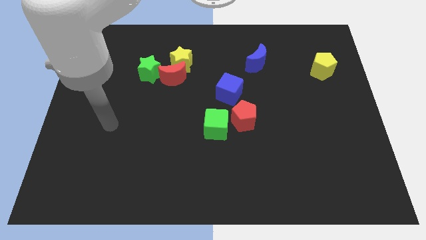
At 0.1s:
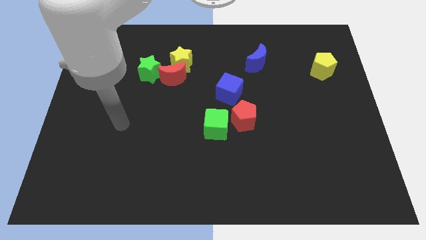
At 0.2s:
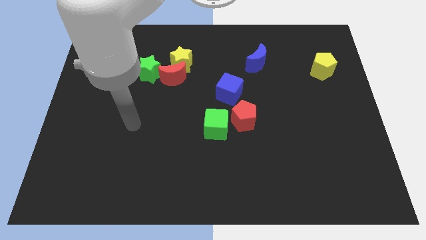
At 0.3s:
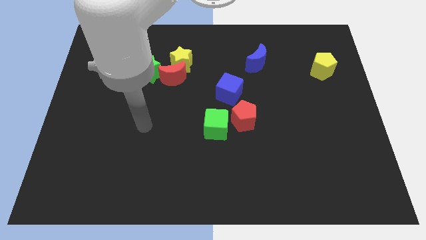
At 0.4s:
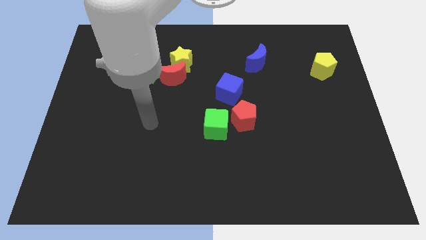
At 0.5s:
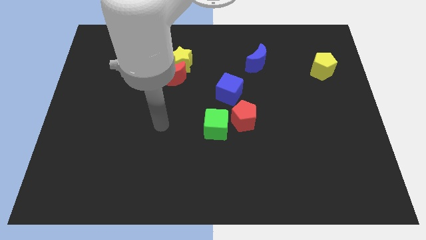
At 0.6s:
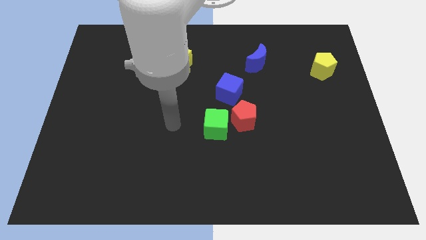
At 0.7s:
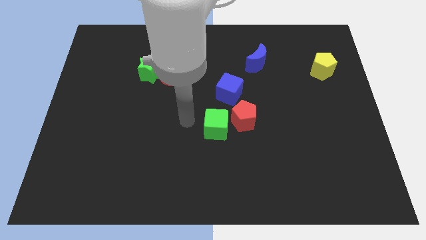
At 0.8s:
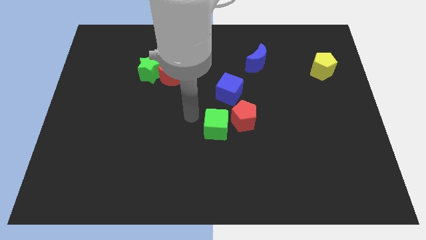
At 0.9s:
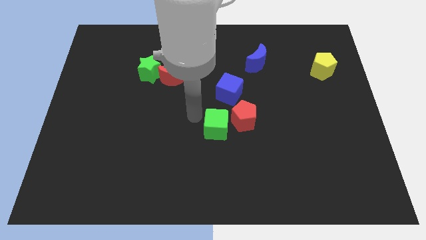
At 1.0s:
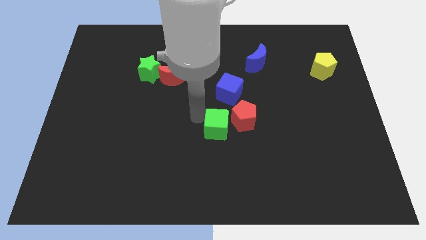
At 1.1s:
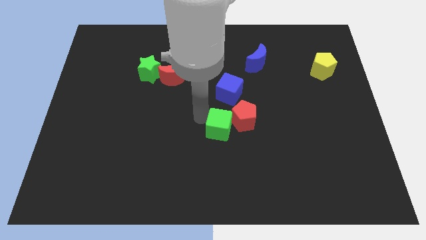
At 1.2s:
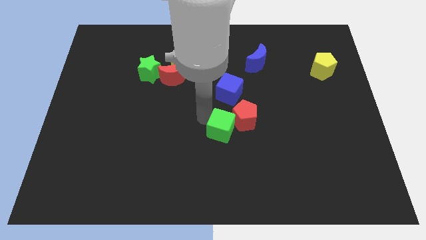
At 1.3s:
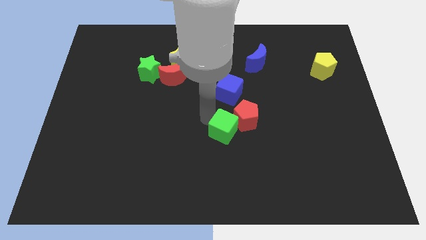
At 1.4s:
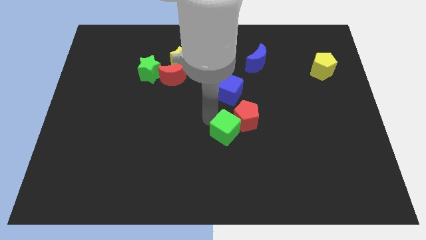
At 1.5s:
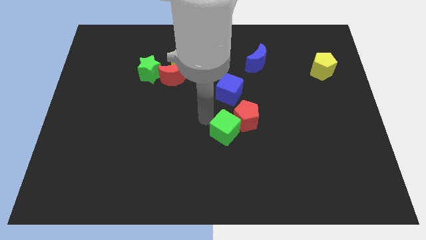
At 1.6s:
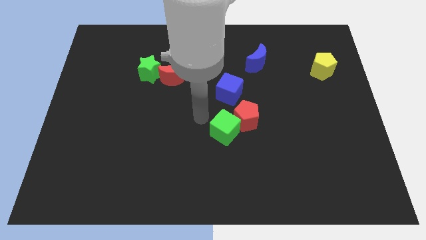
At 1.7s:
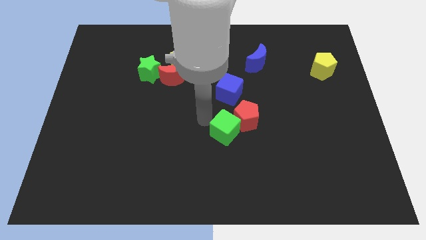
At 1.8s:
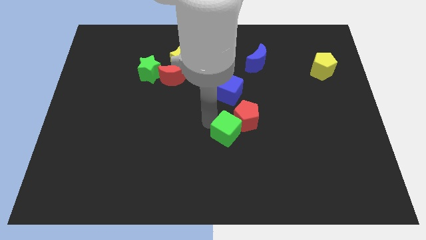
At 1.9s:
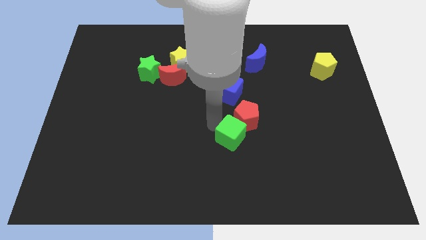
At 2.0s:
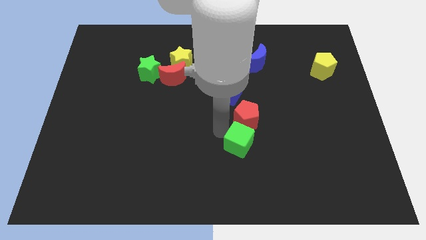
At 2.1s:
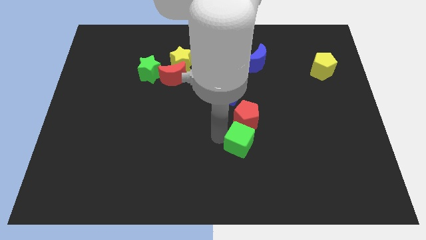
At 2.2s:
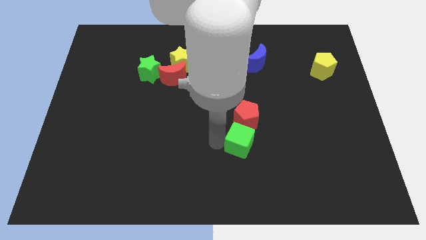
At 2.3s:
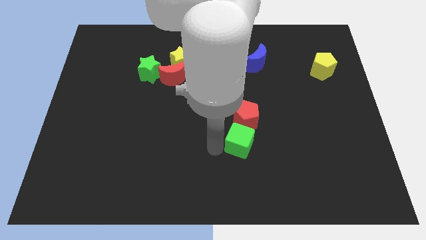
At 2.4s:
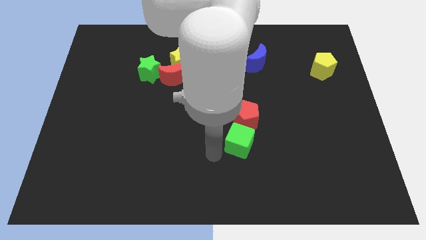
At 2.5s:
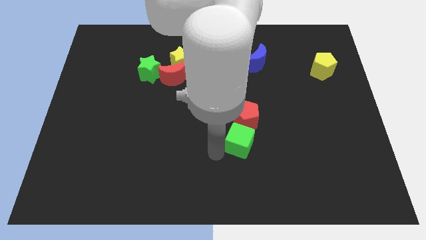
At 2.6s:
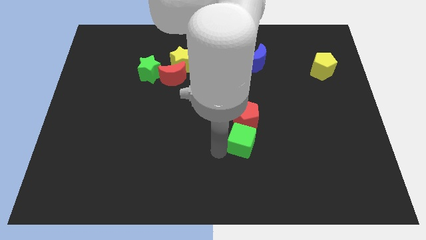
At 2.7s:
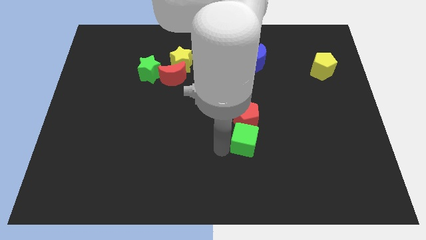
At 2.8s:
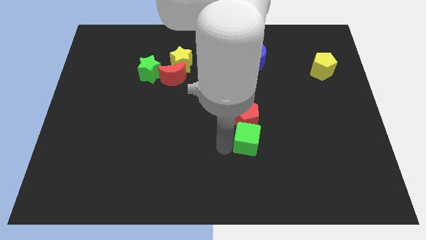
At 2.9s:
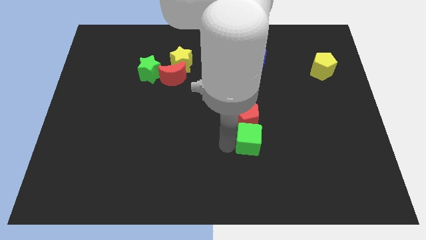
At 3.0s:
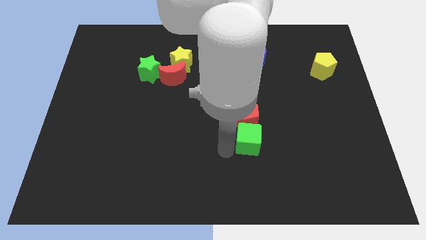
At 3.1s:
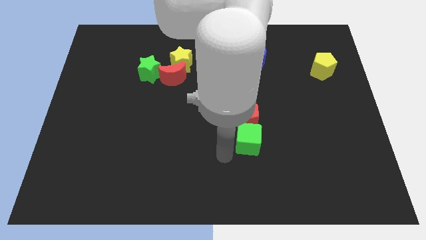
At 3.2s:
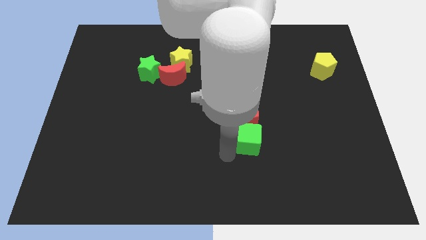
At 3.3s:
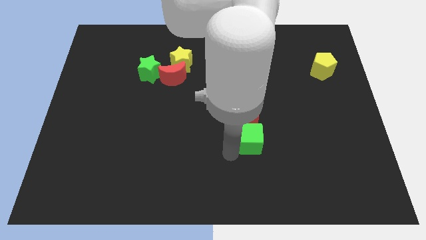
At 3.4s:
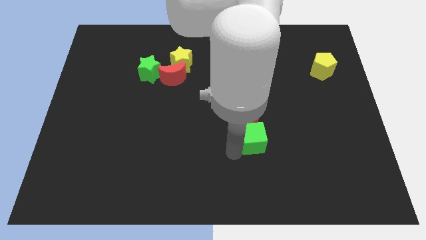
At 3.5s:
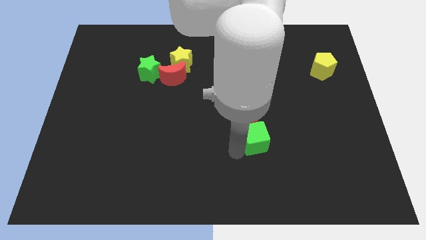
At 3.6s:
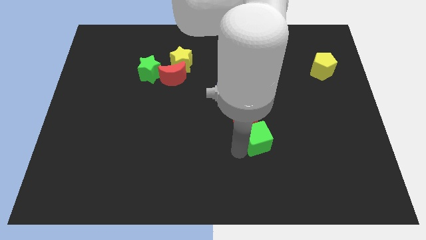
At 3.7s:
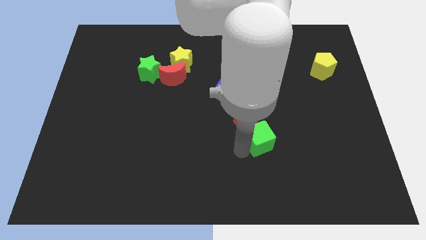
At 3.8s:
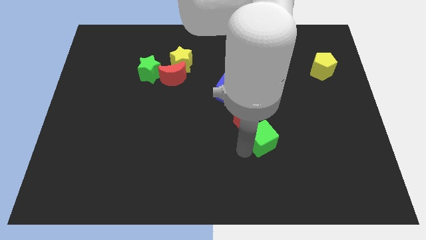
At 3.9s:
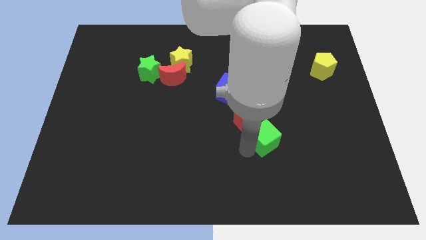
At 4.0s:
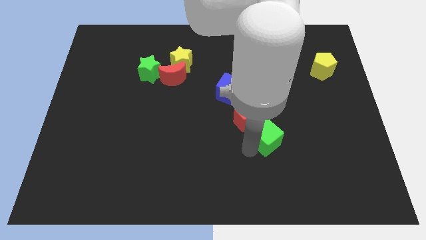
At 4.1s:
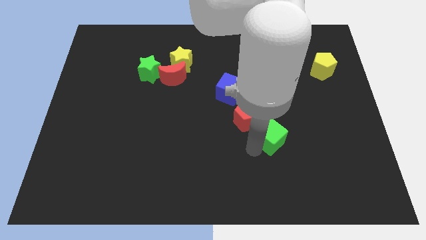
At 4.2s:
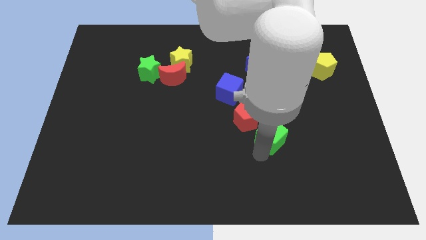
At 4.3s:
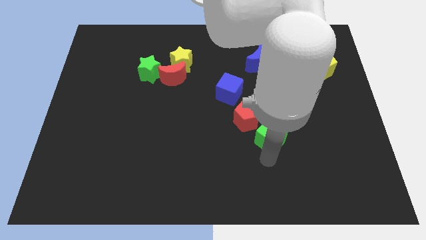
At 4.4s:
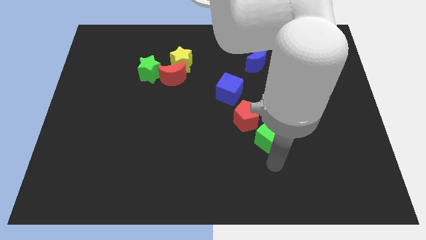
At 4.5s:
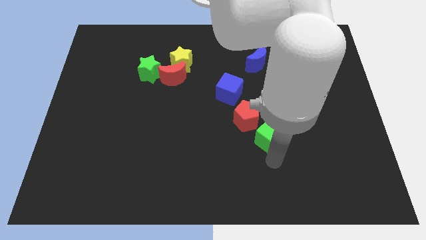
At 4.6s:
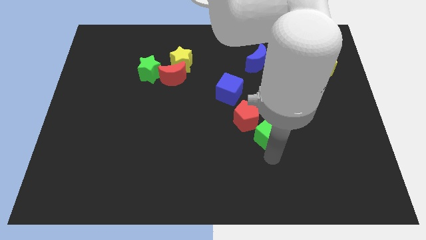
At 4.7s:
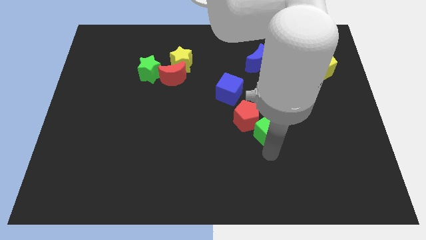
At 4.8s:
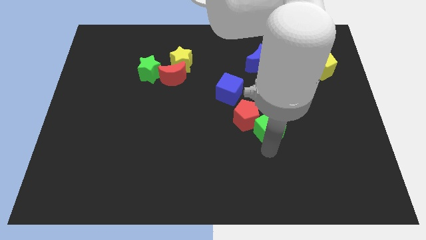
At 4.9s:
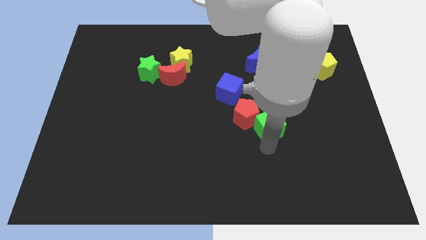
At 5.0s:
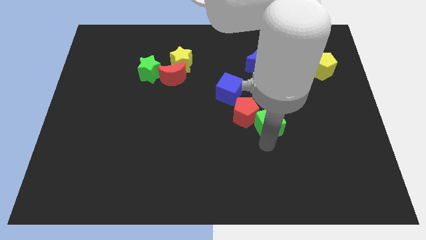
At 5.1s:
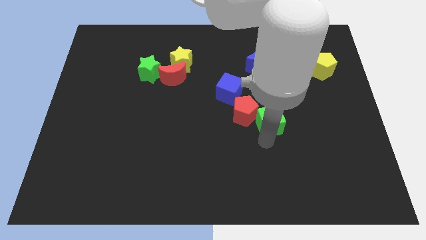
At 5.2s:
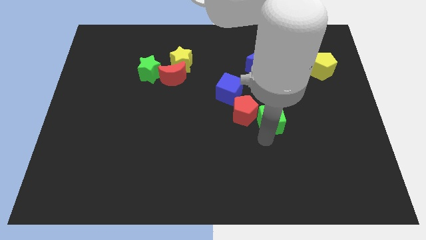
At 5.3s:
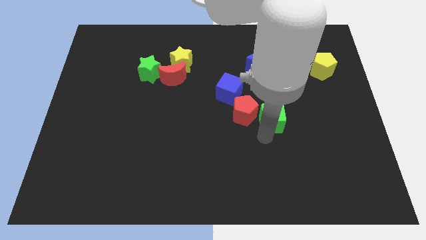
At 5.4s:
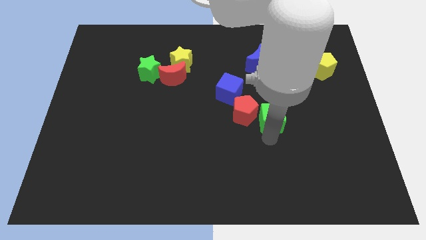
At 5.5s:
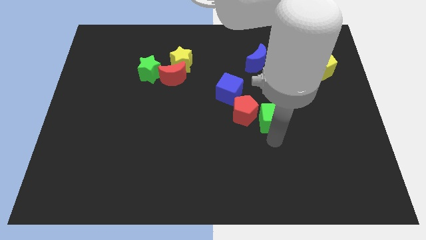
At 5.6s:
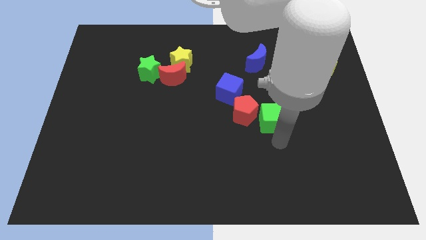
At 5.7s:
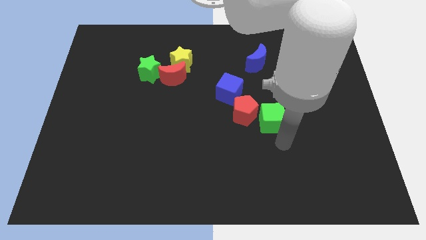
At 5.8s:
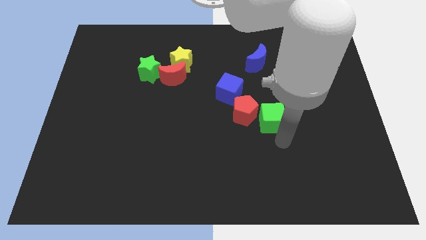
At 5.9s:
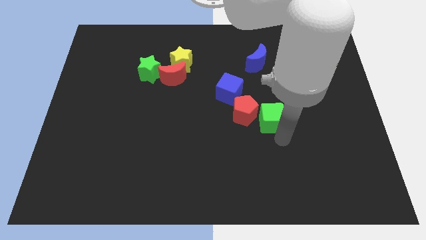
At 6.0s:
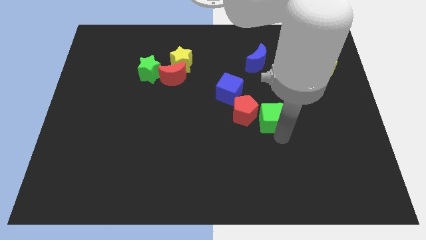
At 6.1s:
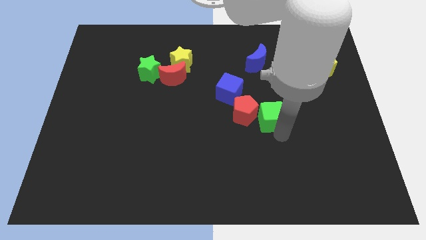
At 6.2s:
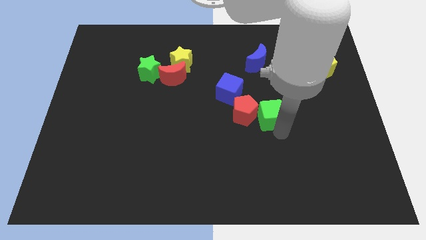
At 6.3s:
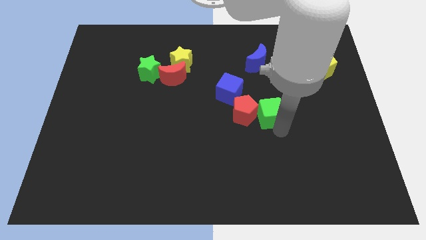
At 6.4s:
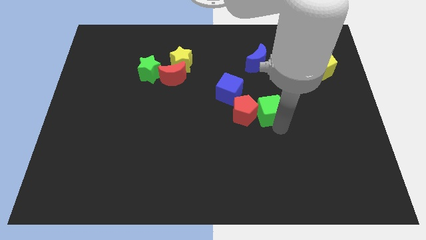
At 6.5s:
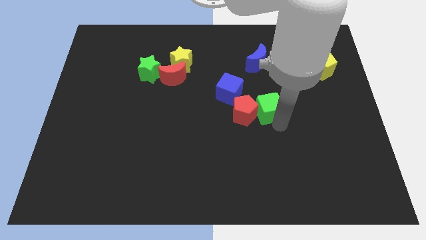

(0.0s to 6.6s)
push the green cube to the bottom of the blue moon

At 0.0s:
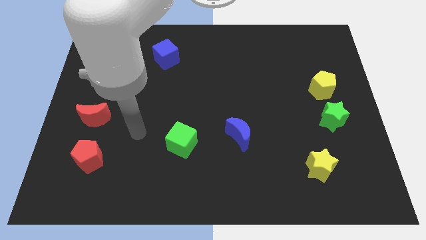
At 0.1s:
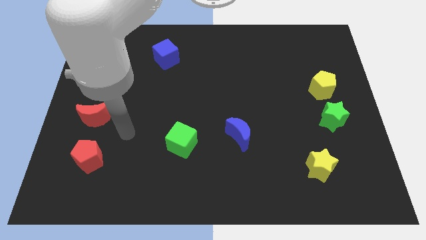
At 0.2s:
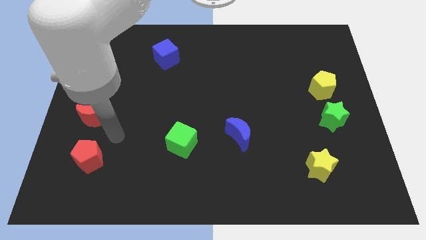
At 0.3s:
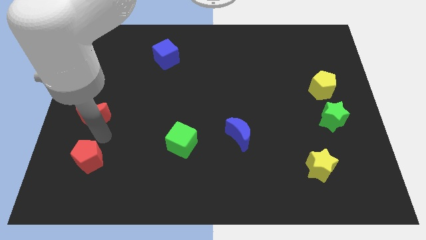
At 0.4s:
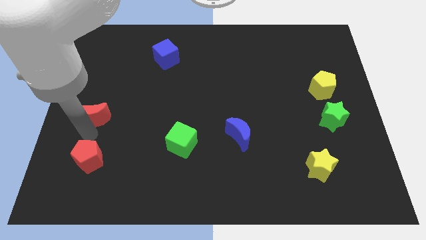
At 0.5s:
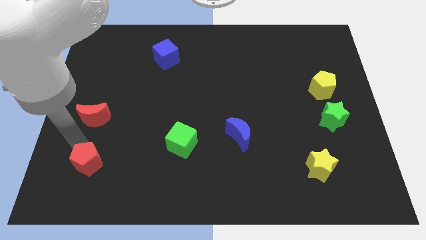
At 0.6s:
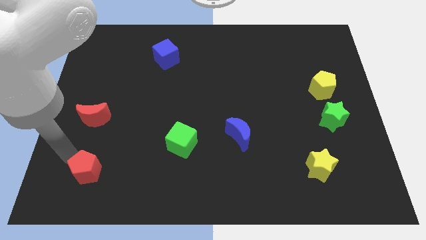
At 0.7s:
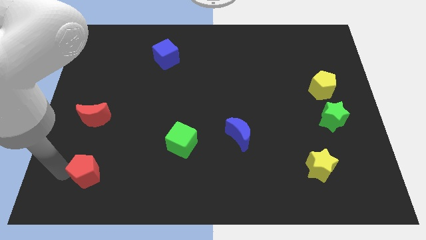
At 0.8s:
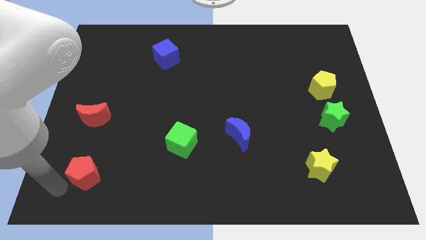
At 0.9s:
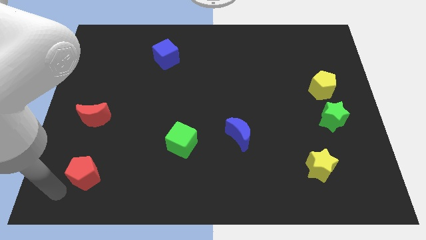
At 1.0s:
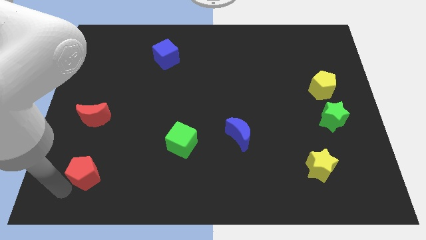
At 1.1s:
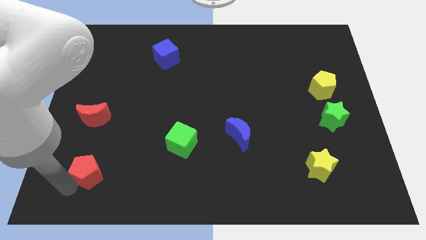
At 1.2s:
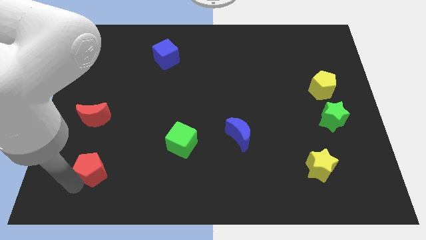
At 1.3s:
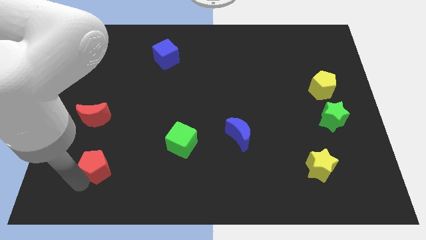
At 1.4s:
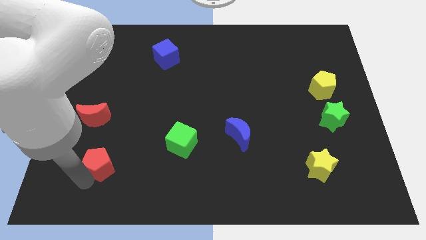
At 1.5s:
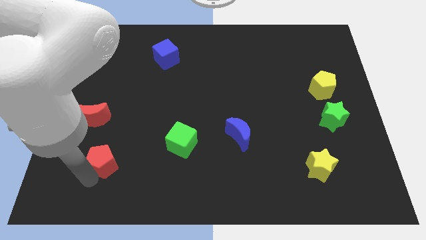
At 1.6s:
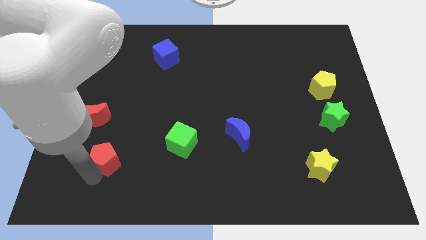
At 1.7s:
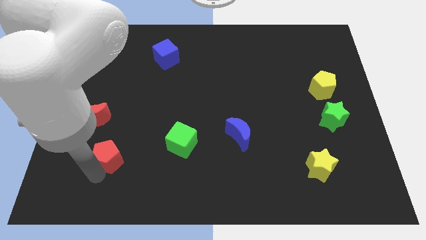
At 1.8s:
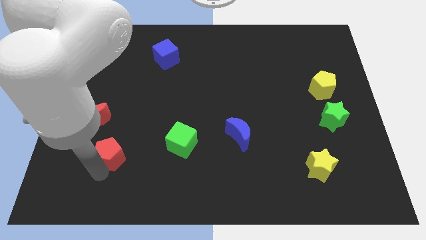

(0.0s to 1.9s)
slide the red pentagon left of the green cube

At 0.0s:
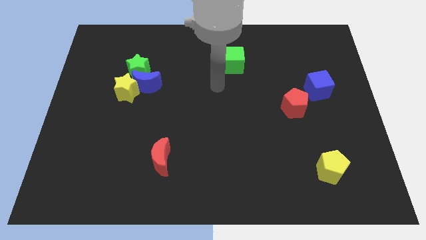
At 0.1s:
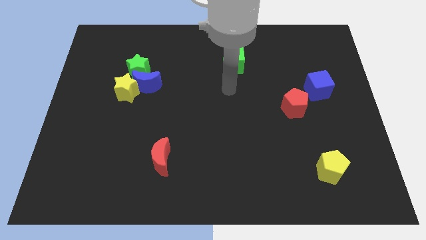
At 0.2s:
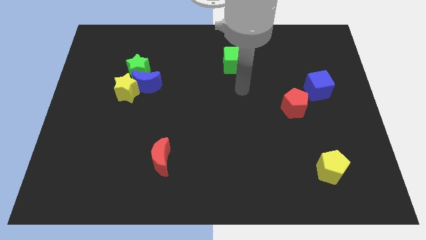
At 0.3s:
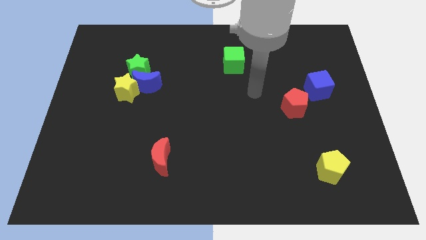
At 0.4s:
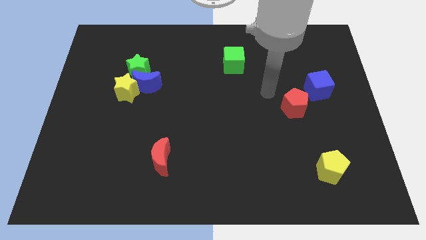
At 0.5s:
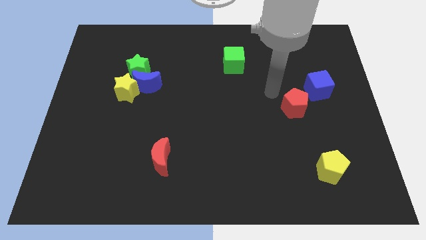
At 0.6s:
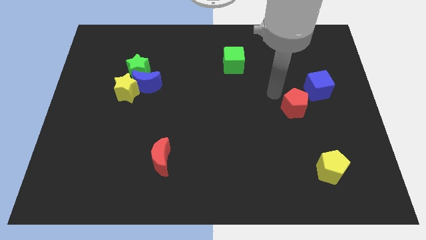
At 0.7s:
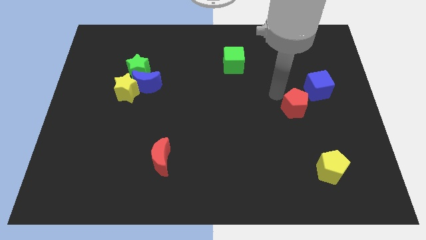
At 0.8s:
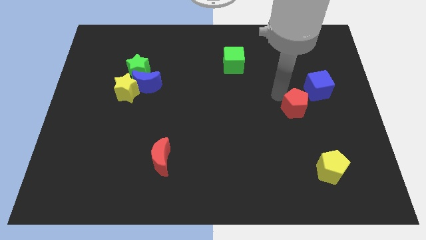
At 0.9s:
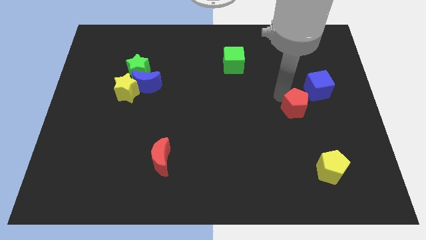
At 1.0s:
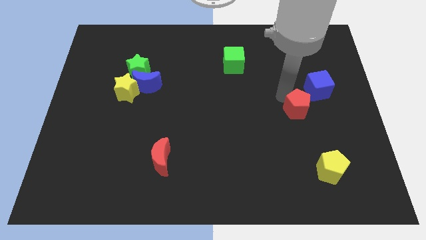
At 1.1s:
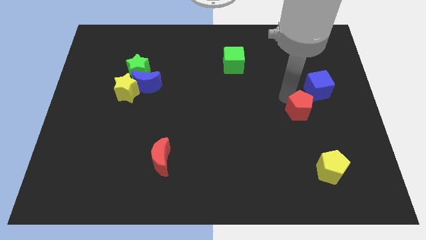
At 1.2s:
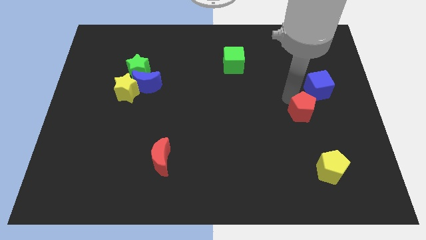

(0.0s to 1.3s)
push the red pentagon to the bottom of the blue cube
